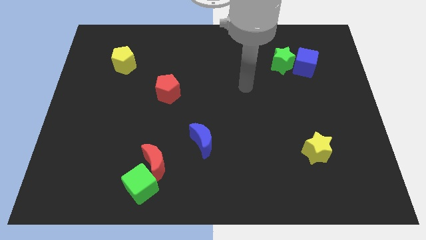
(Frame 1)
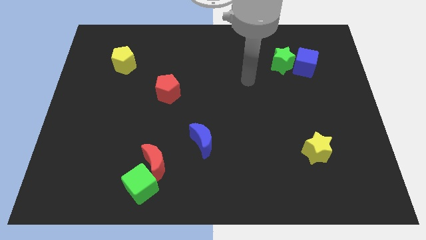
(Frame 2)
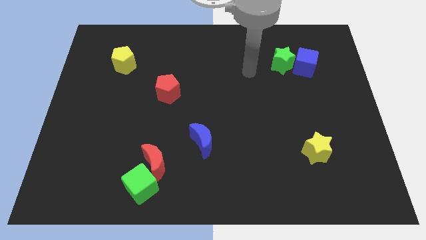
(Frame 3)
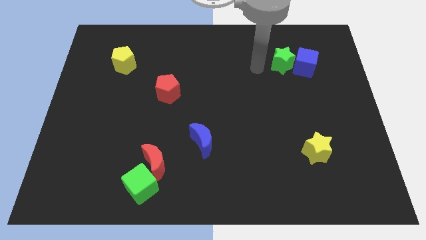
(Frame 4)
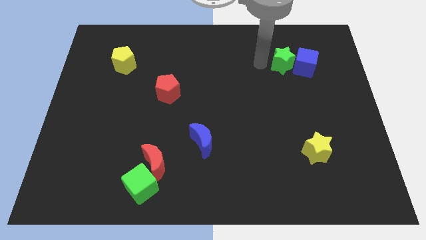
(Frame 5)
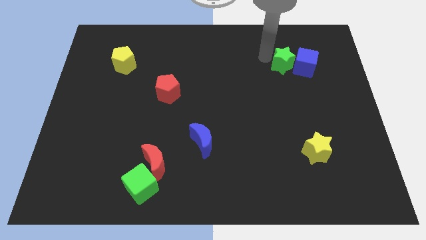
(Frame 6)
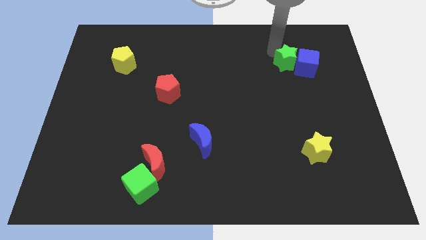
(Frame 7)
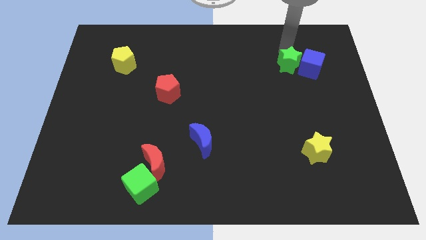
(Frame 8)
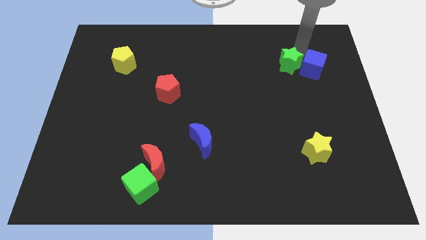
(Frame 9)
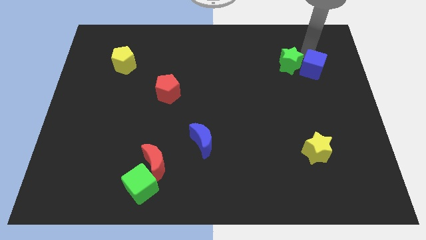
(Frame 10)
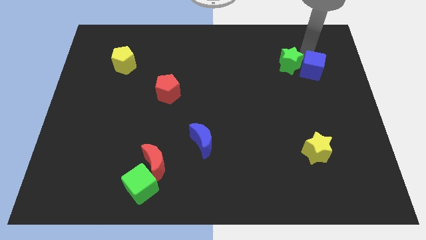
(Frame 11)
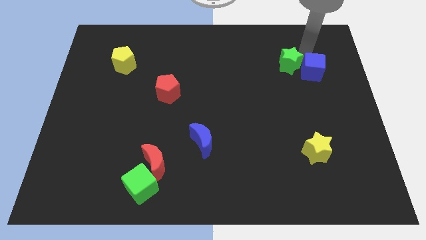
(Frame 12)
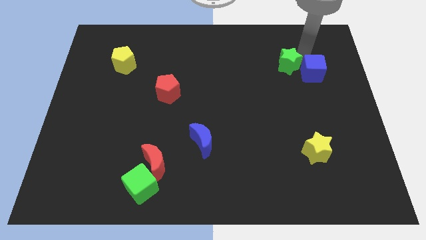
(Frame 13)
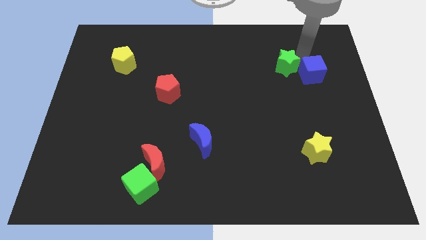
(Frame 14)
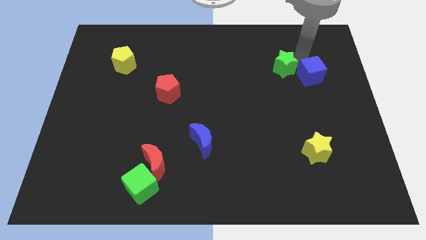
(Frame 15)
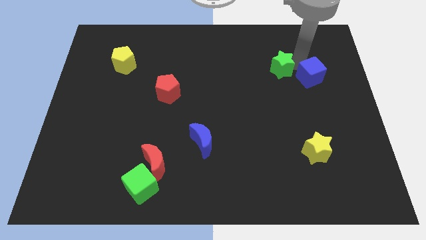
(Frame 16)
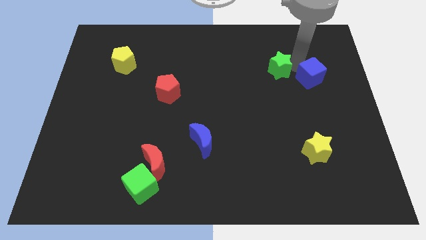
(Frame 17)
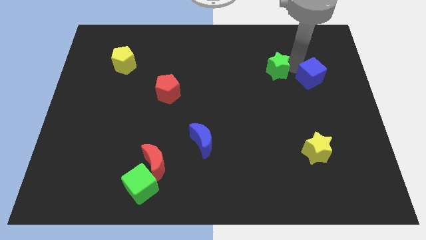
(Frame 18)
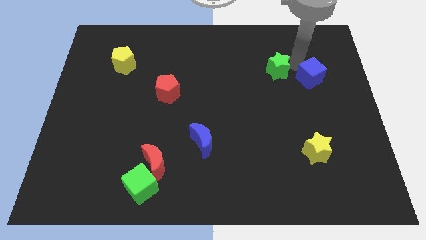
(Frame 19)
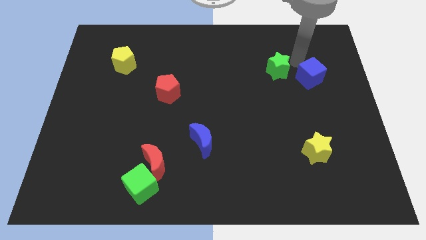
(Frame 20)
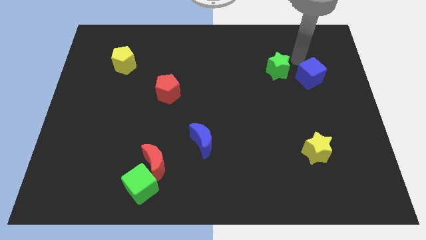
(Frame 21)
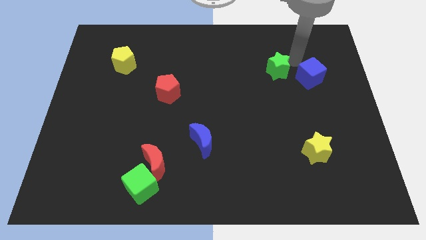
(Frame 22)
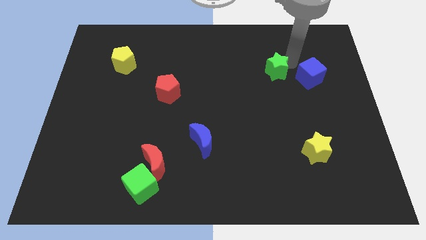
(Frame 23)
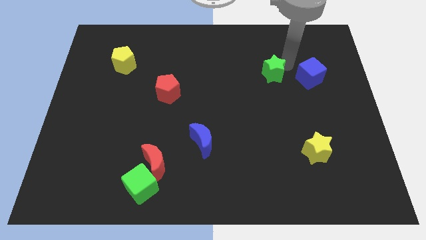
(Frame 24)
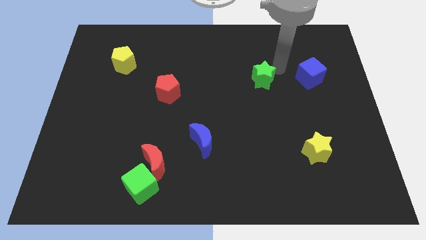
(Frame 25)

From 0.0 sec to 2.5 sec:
slightly push the green star down and left

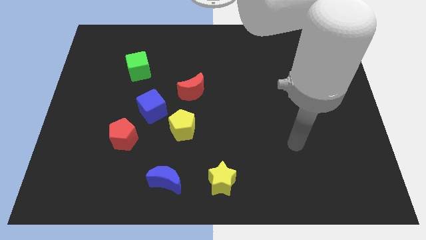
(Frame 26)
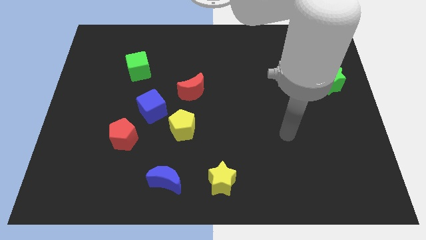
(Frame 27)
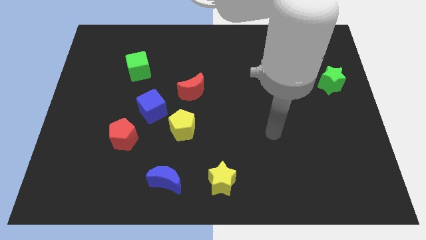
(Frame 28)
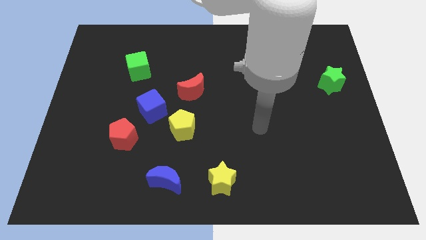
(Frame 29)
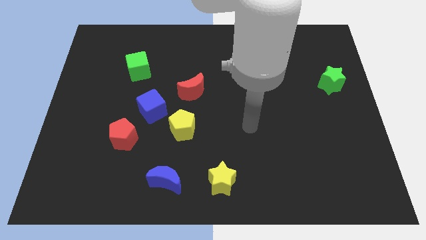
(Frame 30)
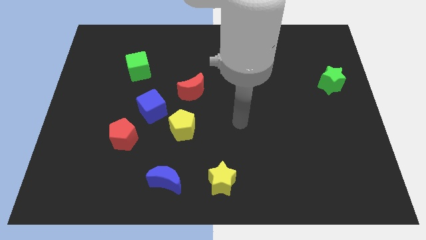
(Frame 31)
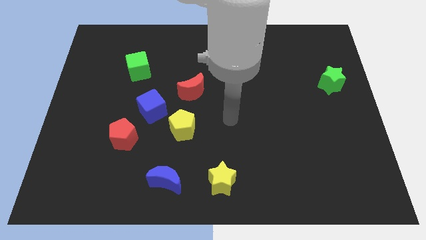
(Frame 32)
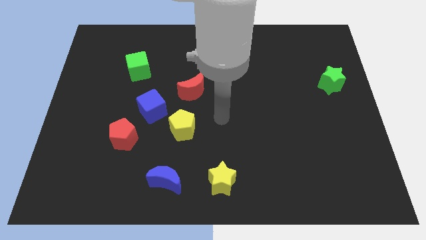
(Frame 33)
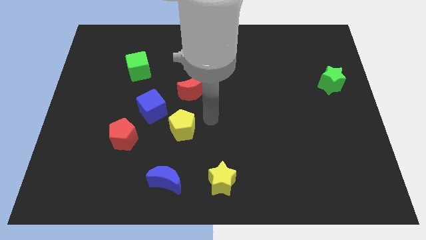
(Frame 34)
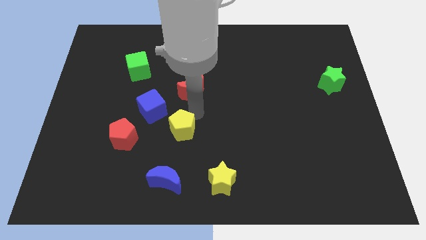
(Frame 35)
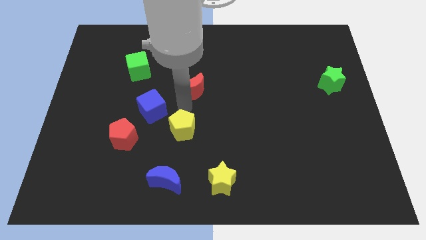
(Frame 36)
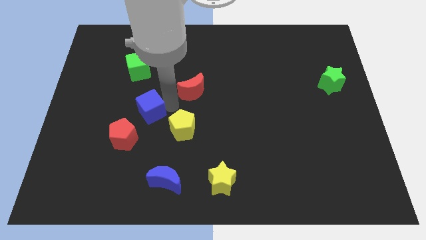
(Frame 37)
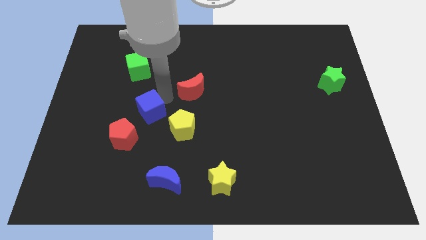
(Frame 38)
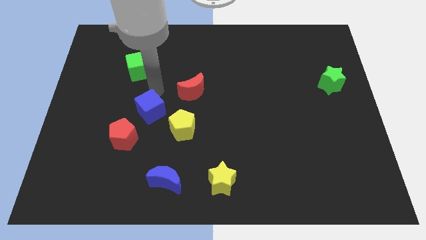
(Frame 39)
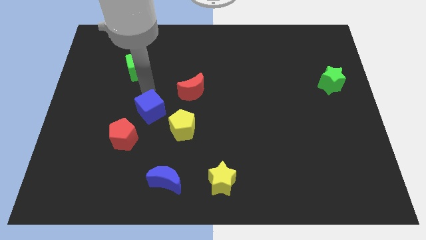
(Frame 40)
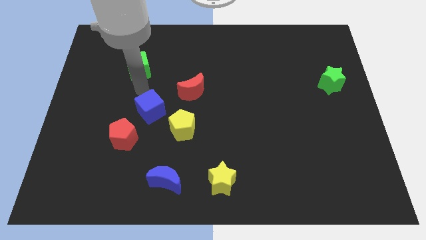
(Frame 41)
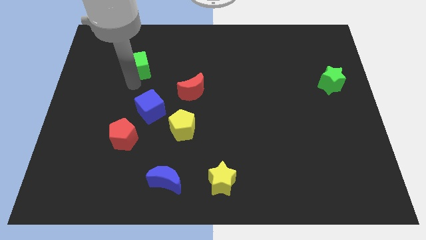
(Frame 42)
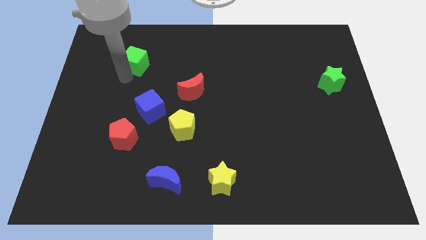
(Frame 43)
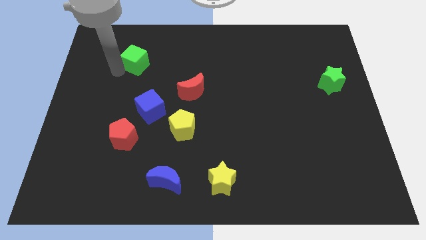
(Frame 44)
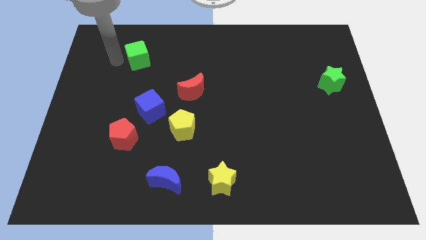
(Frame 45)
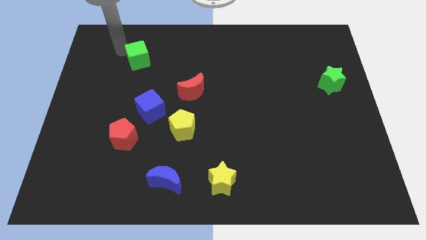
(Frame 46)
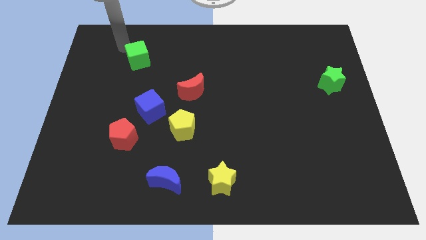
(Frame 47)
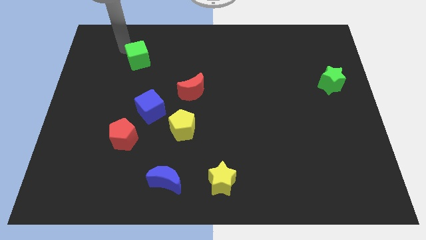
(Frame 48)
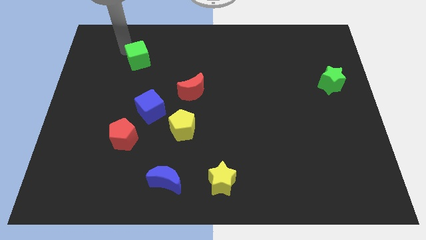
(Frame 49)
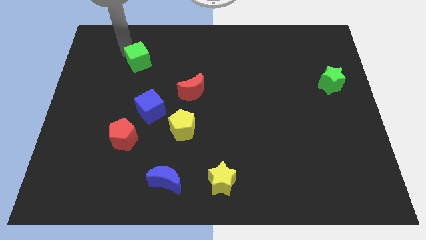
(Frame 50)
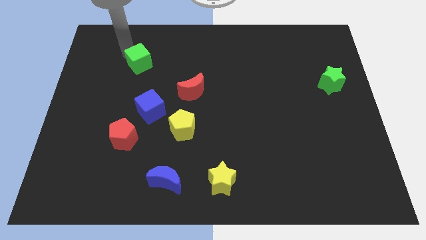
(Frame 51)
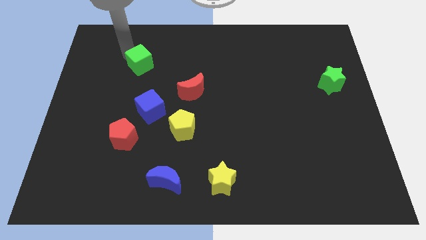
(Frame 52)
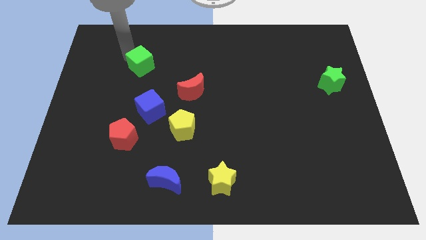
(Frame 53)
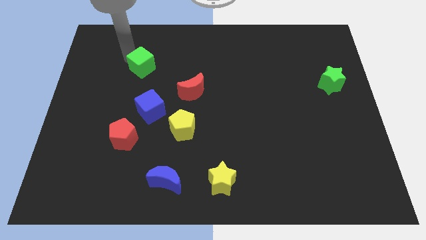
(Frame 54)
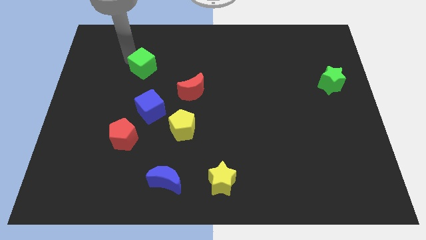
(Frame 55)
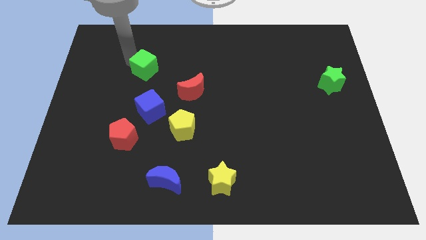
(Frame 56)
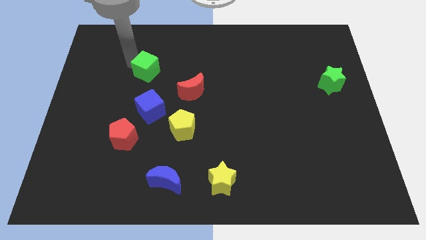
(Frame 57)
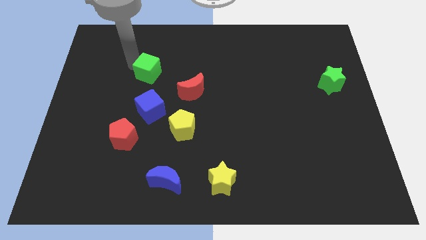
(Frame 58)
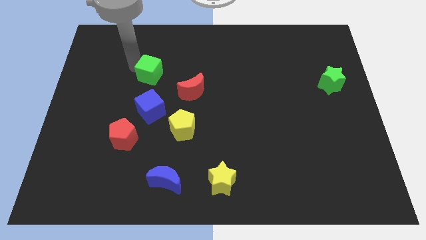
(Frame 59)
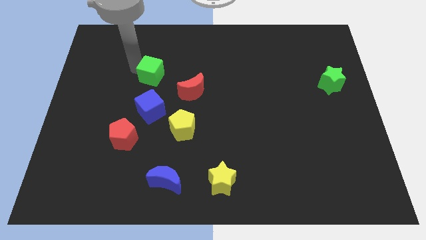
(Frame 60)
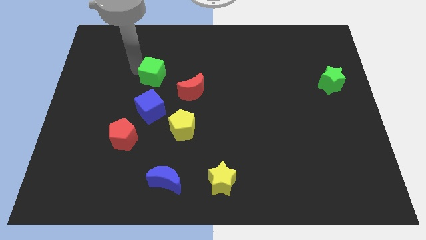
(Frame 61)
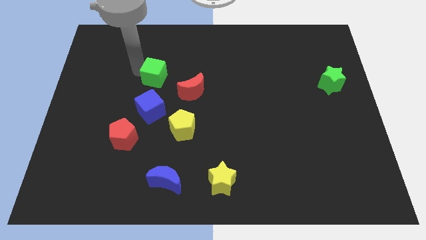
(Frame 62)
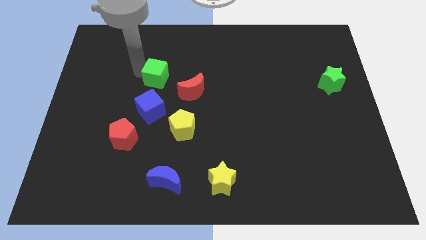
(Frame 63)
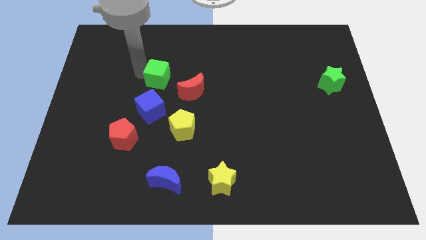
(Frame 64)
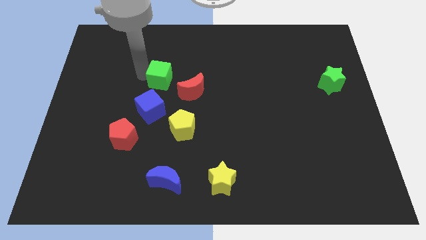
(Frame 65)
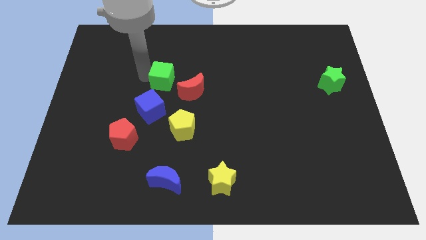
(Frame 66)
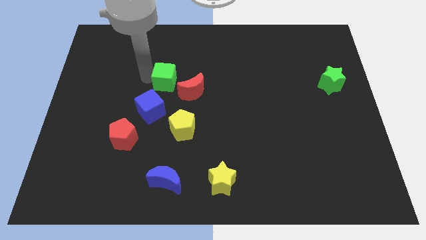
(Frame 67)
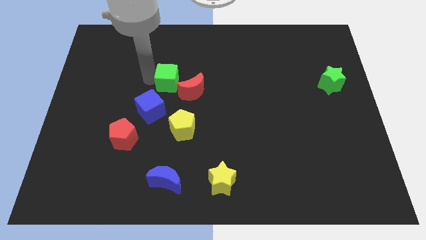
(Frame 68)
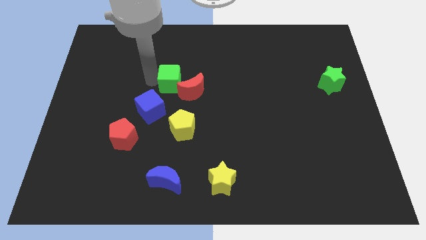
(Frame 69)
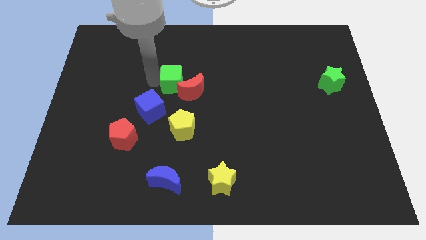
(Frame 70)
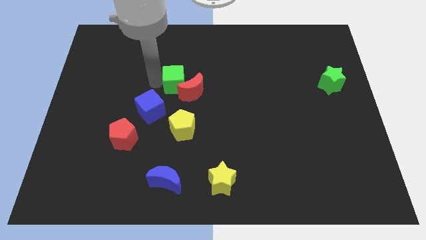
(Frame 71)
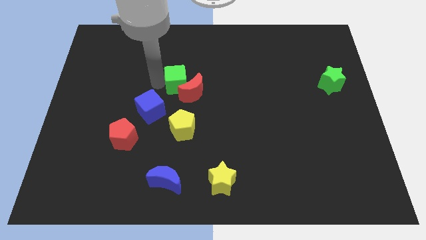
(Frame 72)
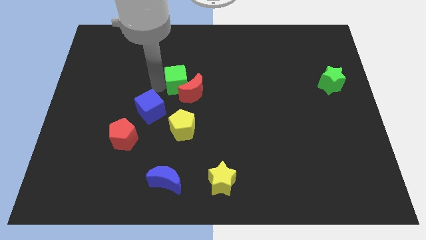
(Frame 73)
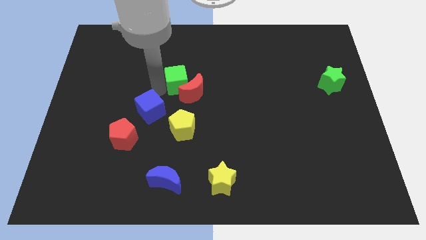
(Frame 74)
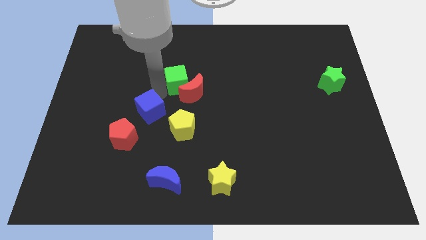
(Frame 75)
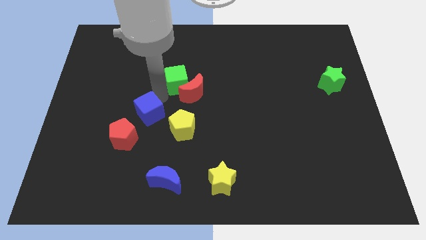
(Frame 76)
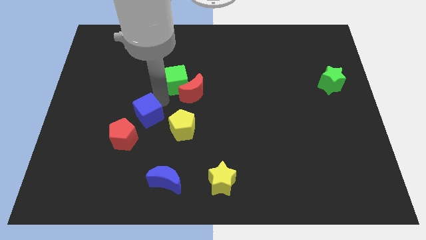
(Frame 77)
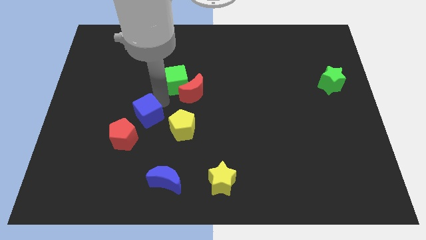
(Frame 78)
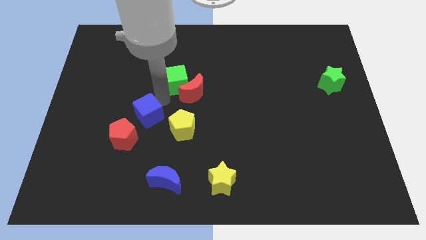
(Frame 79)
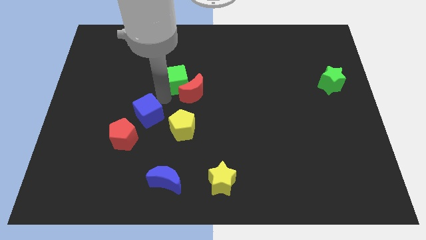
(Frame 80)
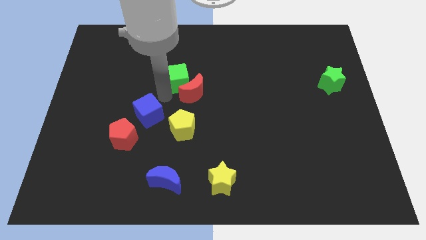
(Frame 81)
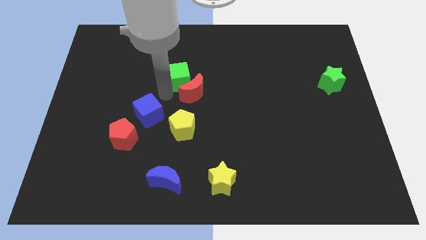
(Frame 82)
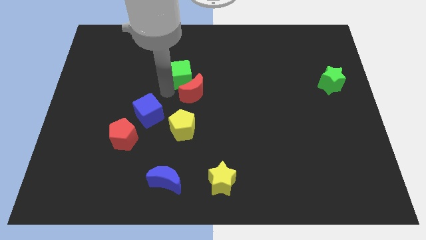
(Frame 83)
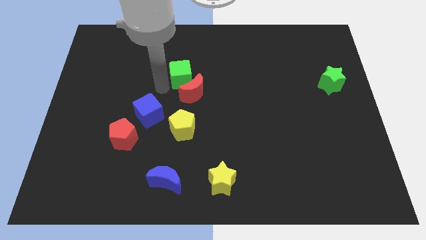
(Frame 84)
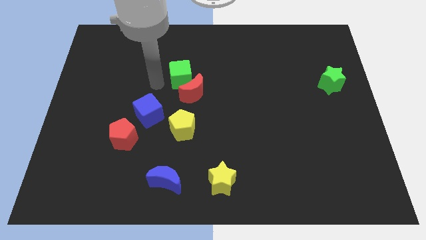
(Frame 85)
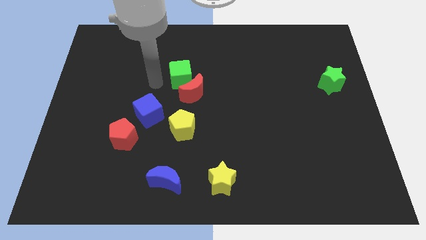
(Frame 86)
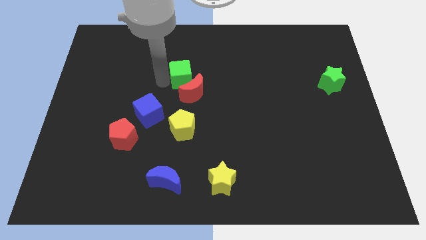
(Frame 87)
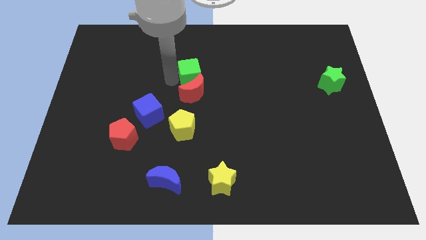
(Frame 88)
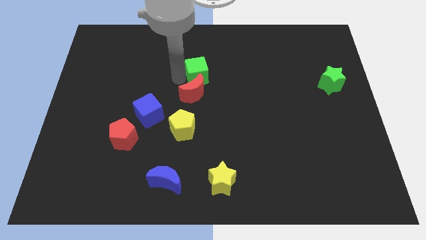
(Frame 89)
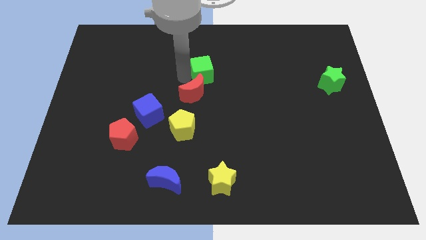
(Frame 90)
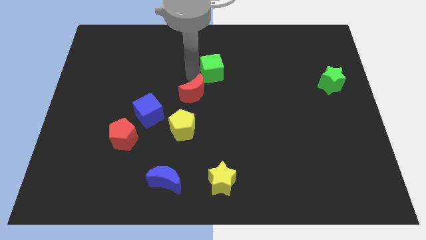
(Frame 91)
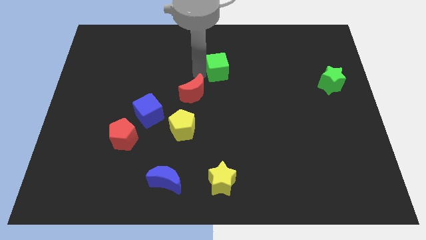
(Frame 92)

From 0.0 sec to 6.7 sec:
move the green cube to the right
